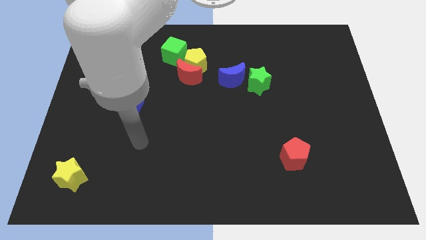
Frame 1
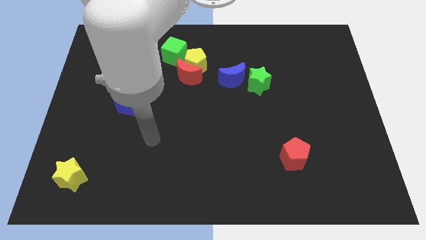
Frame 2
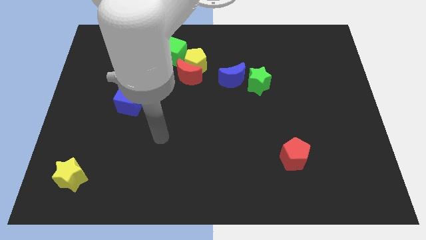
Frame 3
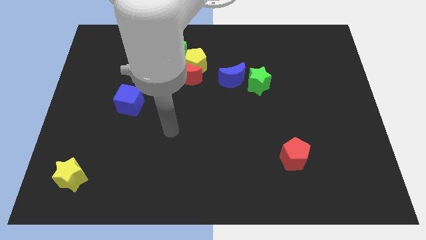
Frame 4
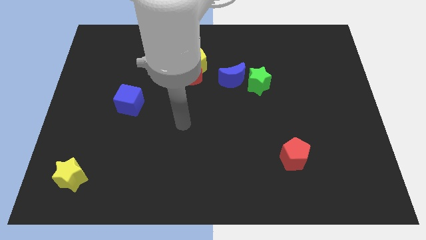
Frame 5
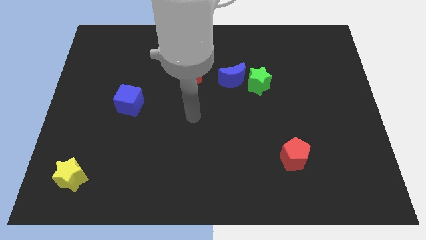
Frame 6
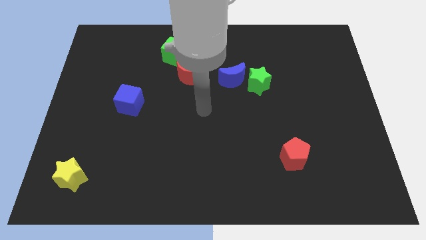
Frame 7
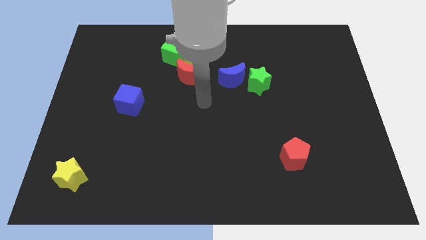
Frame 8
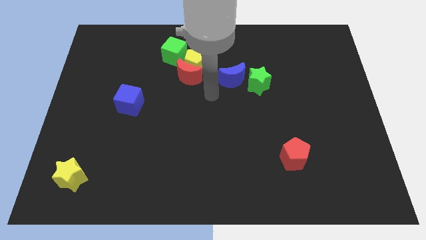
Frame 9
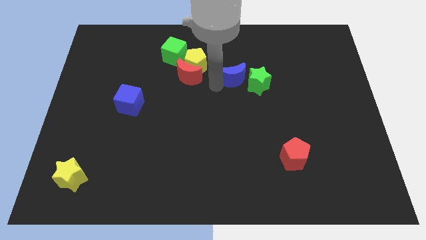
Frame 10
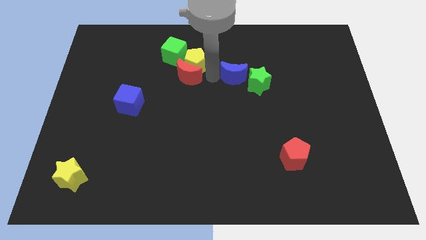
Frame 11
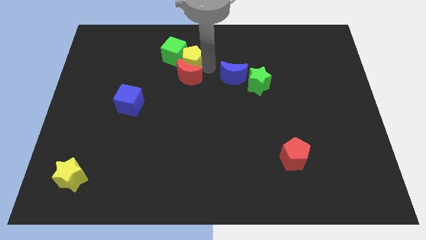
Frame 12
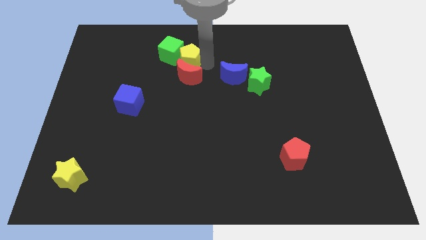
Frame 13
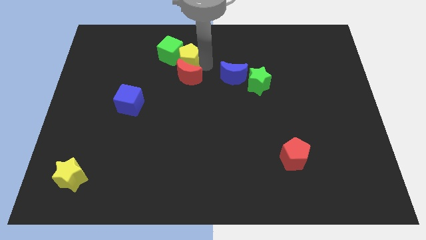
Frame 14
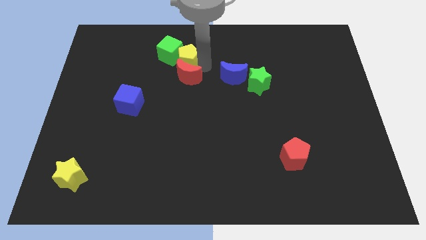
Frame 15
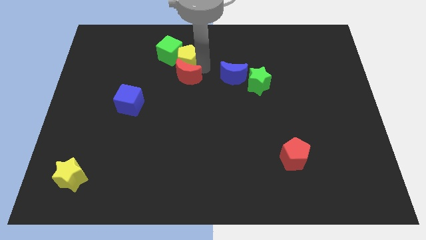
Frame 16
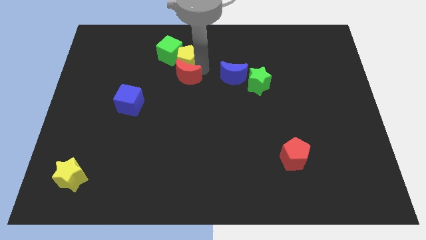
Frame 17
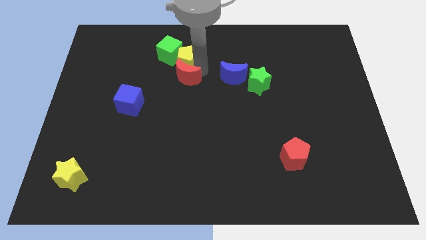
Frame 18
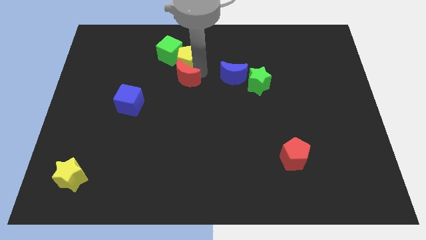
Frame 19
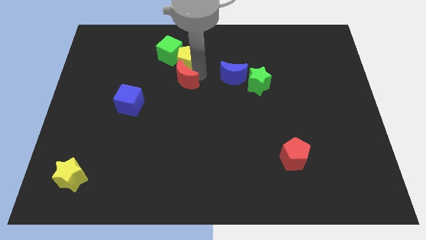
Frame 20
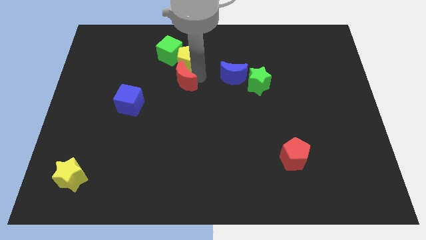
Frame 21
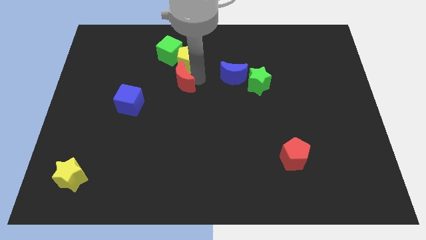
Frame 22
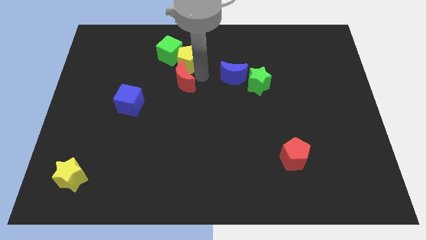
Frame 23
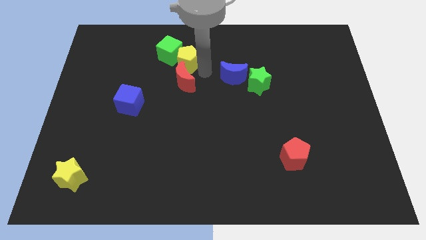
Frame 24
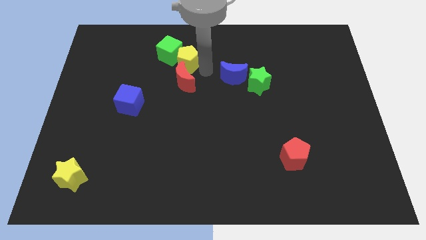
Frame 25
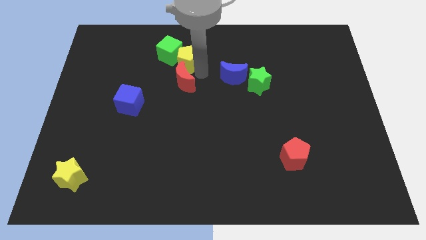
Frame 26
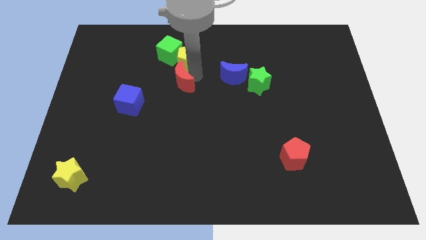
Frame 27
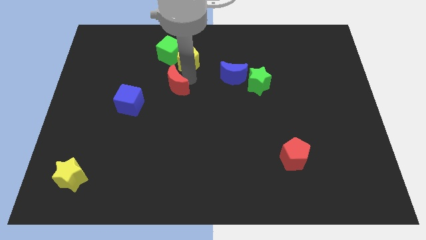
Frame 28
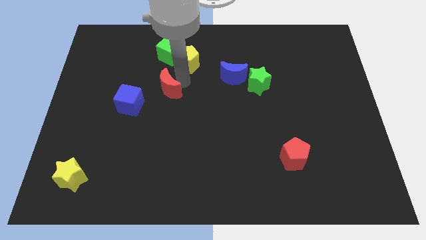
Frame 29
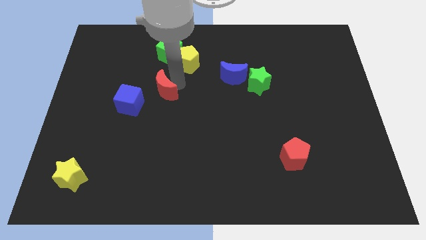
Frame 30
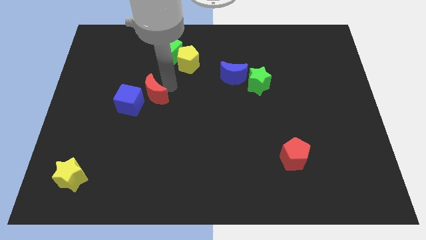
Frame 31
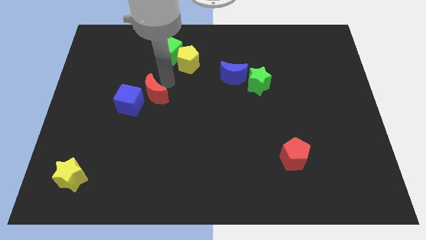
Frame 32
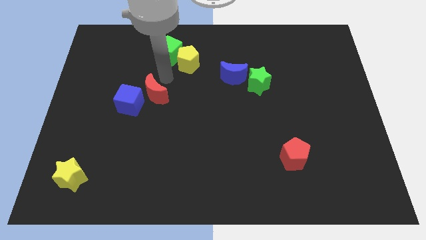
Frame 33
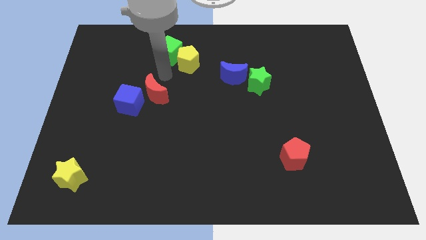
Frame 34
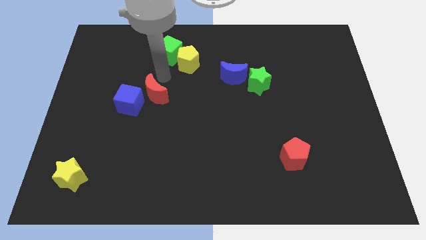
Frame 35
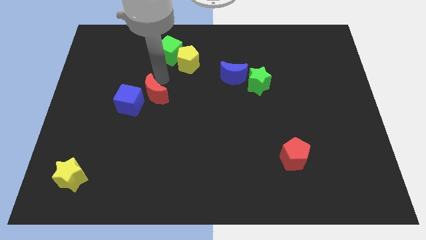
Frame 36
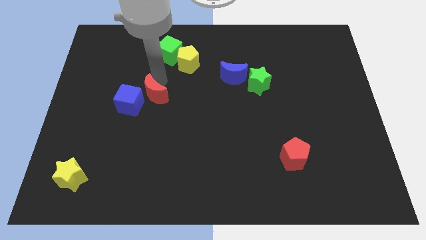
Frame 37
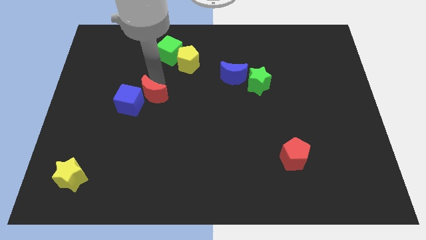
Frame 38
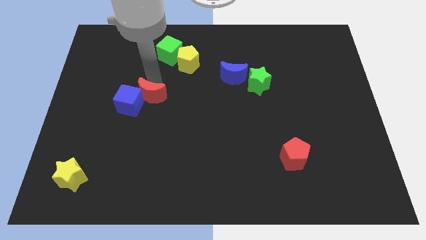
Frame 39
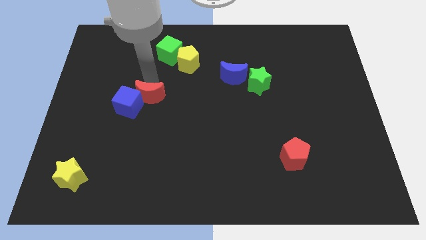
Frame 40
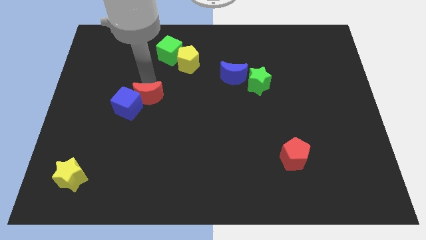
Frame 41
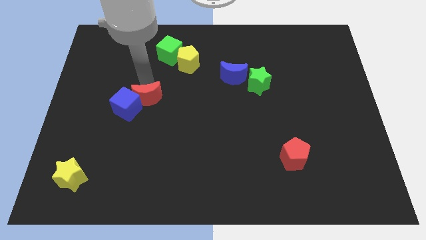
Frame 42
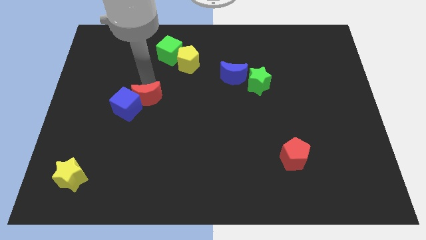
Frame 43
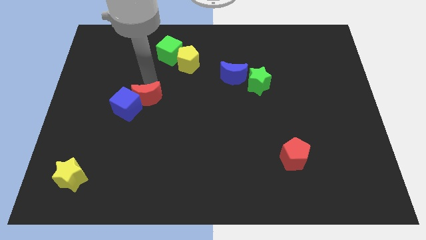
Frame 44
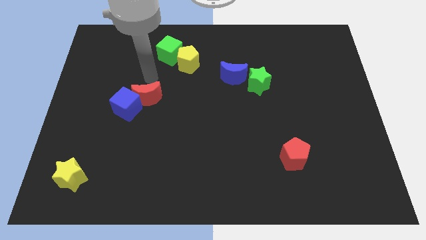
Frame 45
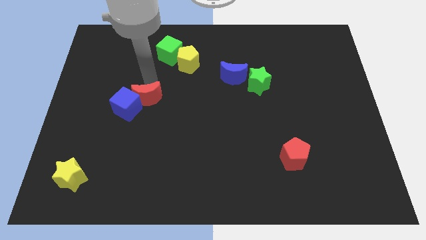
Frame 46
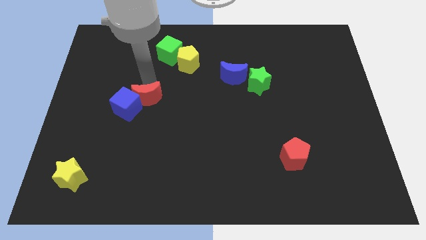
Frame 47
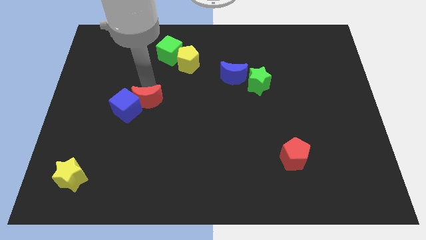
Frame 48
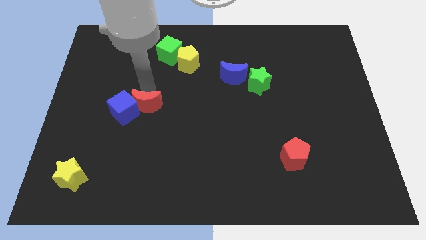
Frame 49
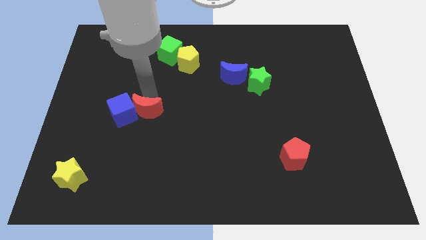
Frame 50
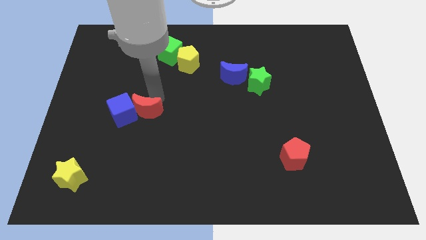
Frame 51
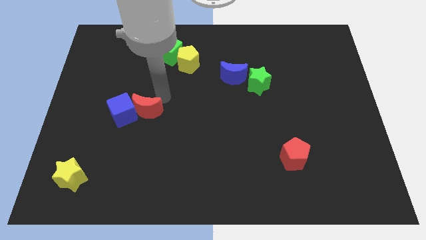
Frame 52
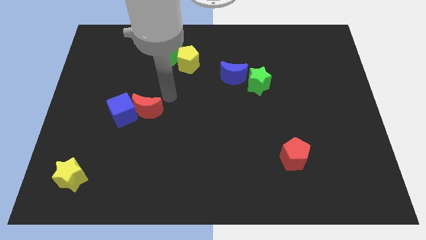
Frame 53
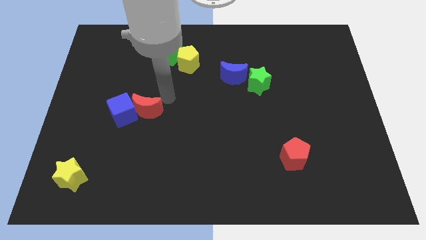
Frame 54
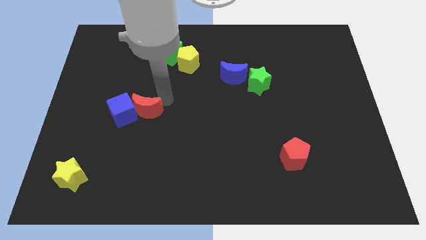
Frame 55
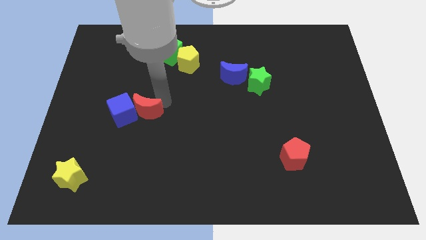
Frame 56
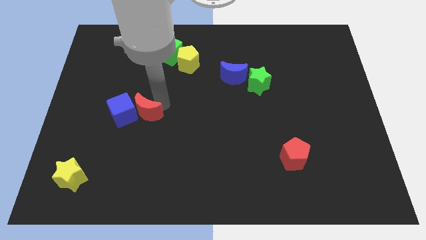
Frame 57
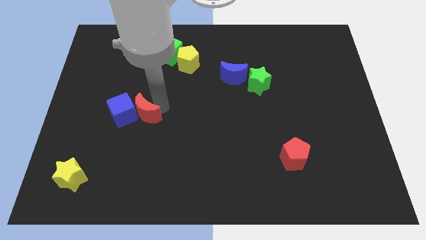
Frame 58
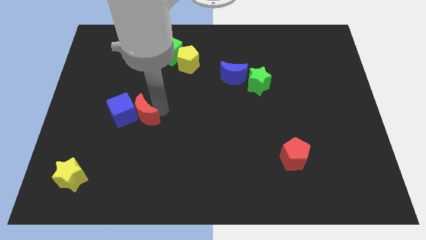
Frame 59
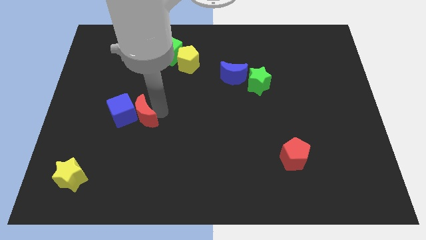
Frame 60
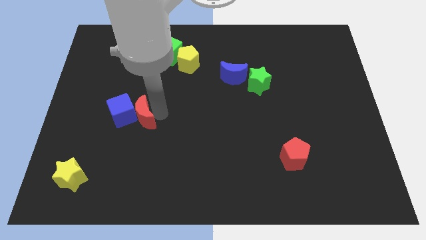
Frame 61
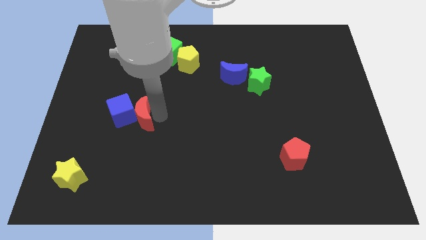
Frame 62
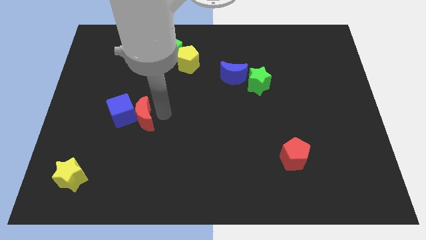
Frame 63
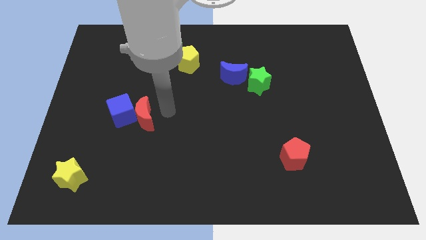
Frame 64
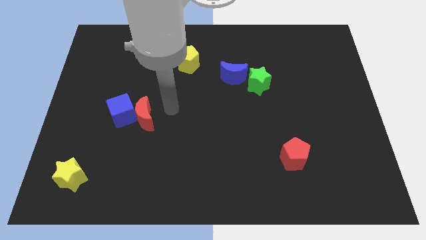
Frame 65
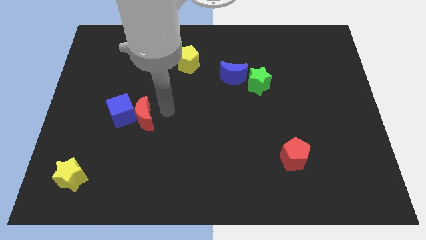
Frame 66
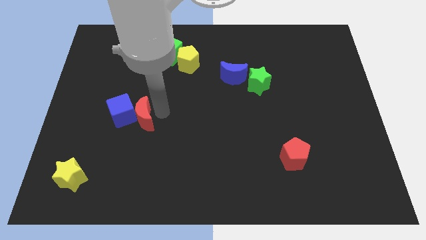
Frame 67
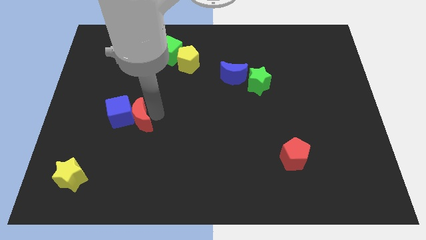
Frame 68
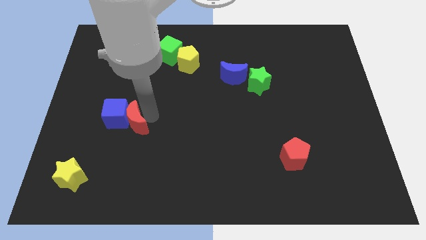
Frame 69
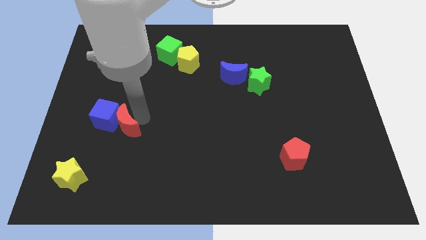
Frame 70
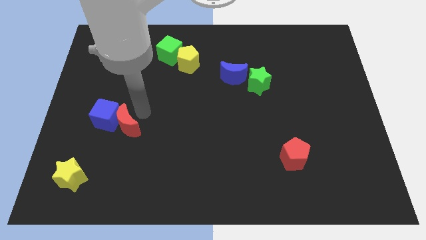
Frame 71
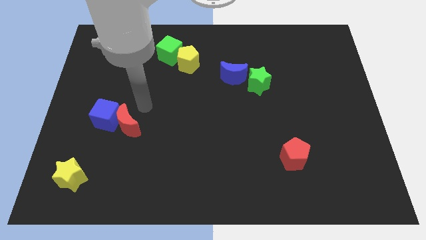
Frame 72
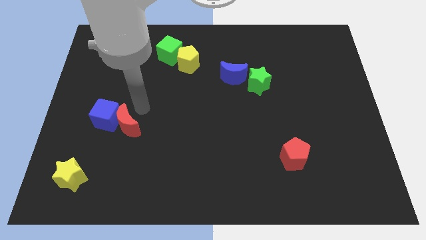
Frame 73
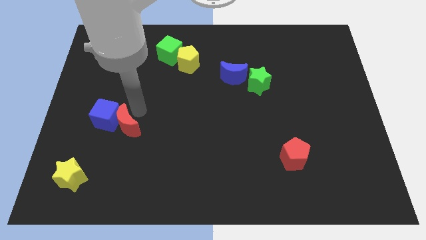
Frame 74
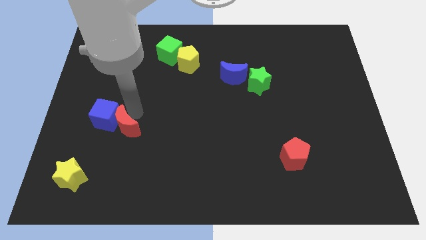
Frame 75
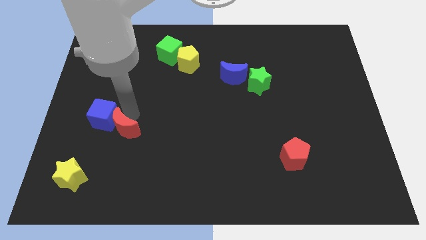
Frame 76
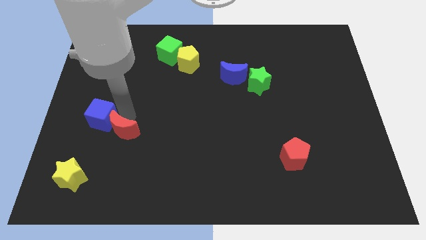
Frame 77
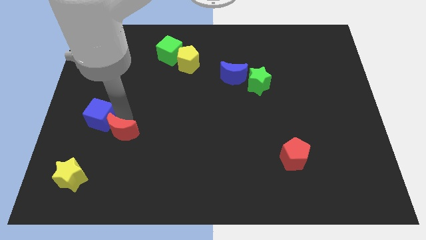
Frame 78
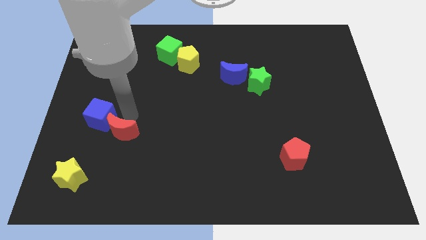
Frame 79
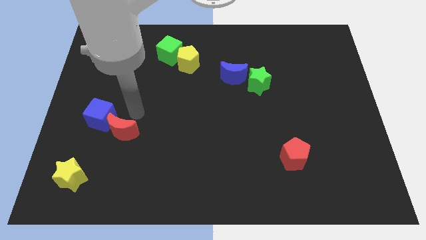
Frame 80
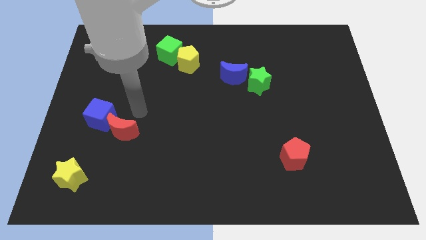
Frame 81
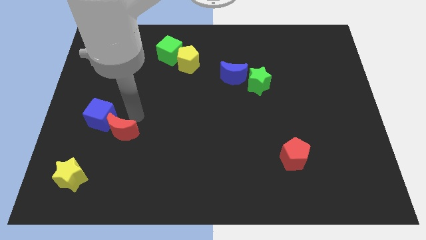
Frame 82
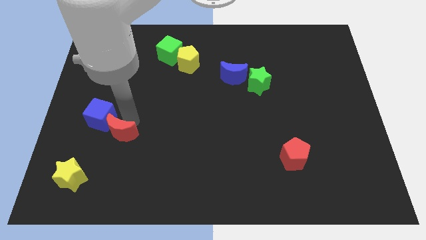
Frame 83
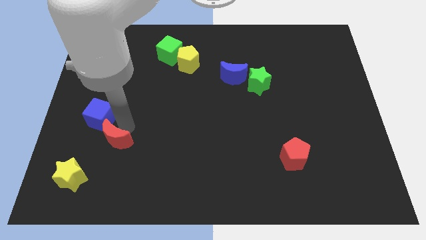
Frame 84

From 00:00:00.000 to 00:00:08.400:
put the red moon diagonally up and to the right of the yellow star
